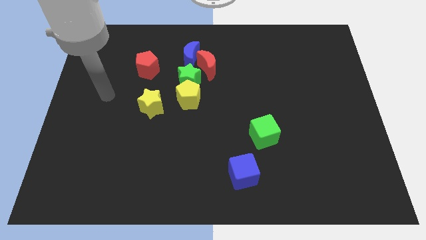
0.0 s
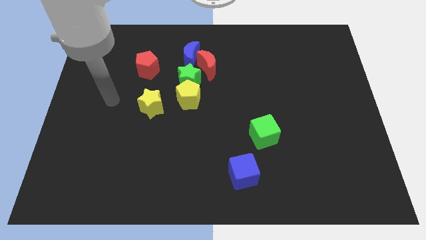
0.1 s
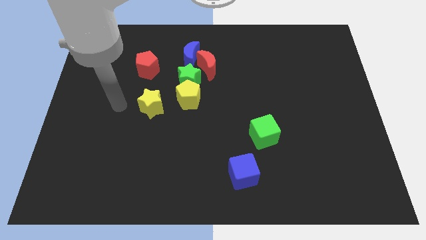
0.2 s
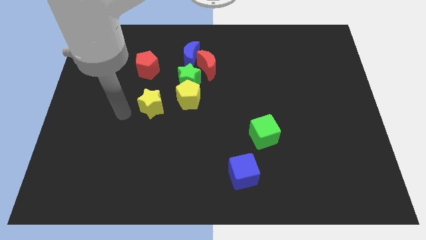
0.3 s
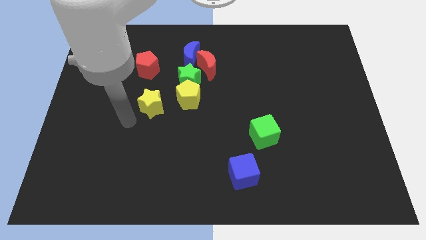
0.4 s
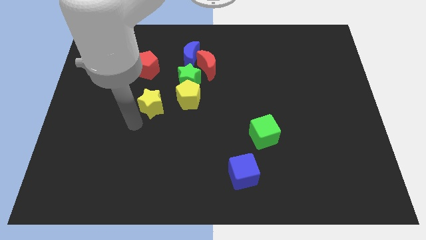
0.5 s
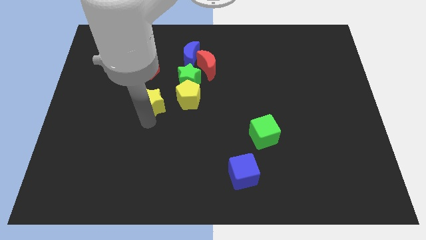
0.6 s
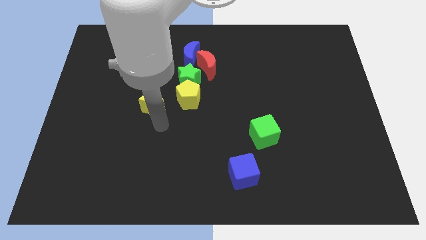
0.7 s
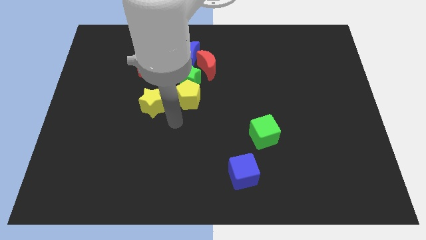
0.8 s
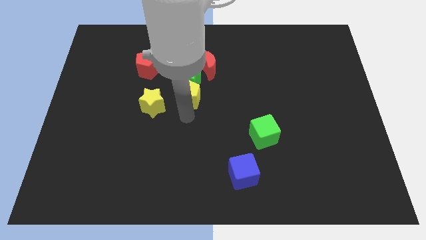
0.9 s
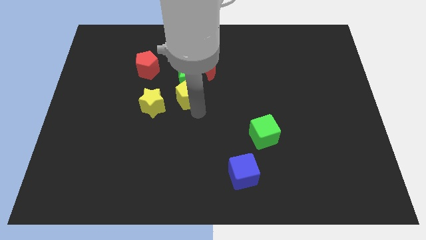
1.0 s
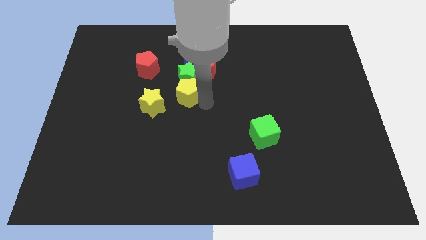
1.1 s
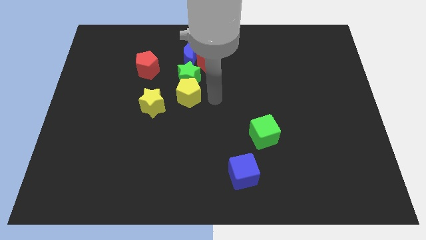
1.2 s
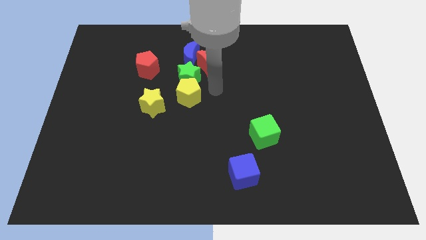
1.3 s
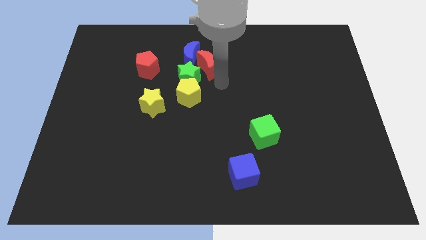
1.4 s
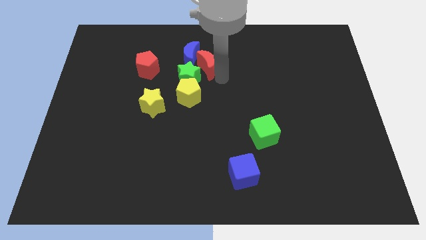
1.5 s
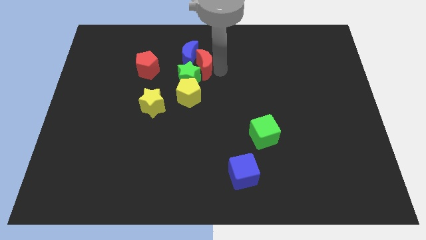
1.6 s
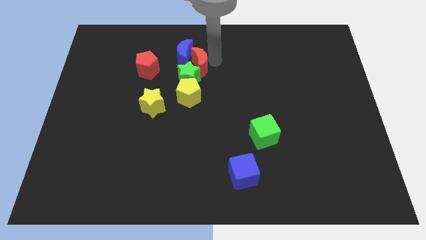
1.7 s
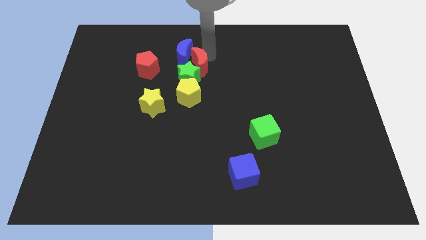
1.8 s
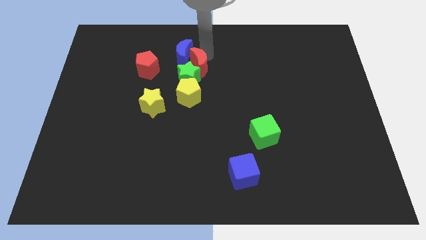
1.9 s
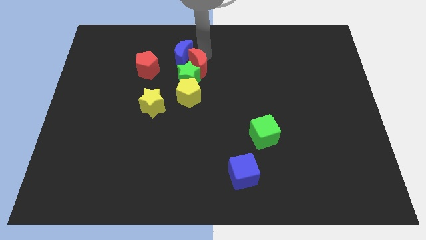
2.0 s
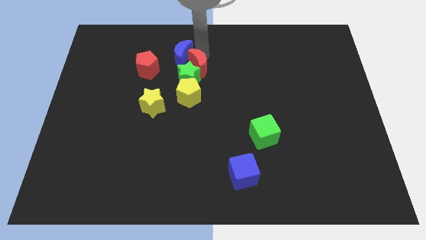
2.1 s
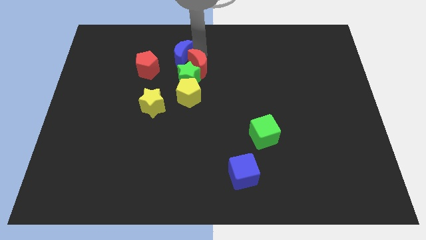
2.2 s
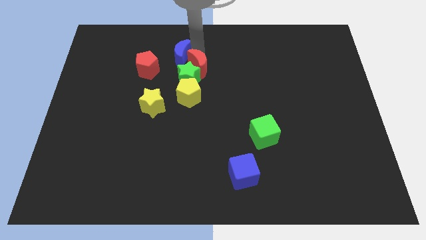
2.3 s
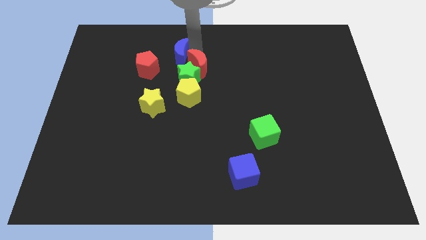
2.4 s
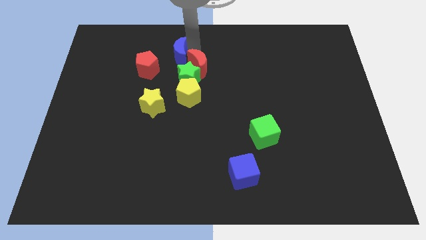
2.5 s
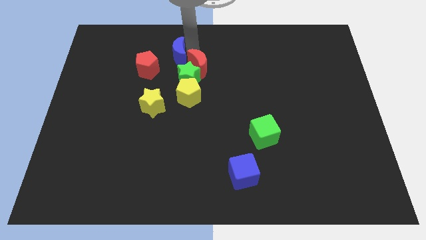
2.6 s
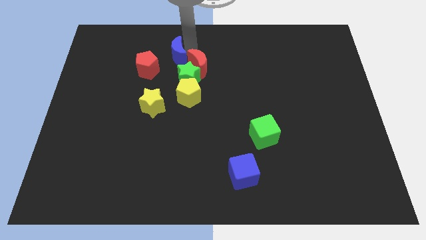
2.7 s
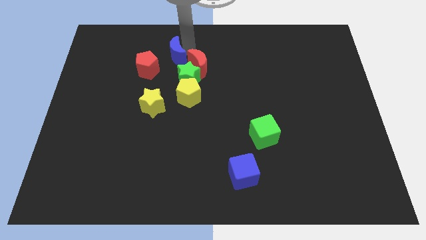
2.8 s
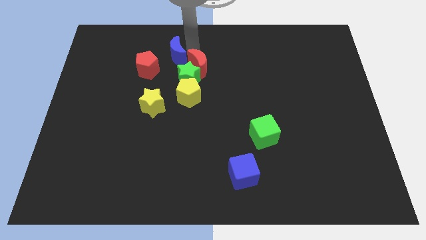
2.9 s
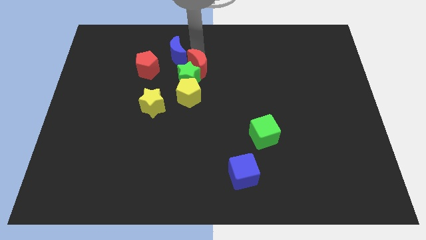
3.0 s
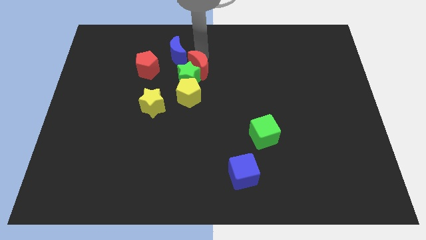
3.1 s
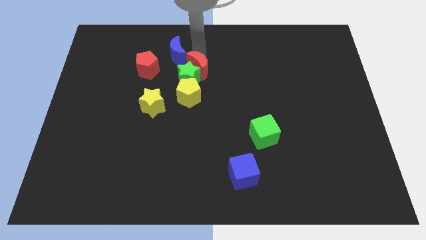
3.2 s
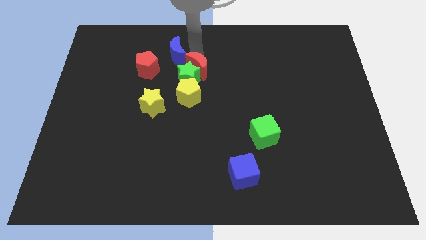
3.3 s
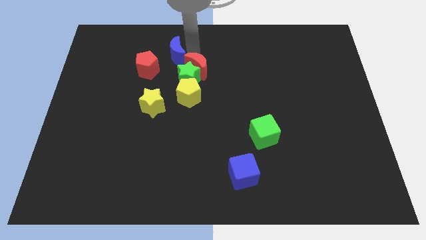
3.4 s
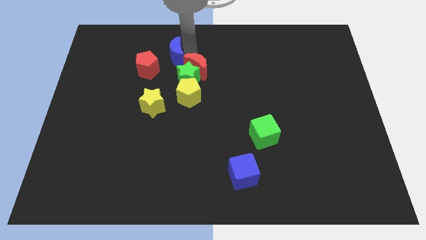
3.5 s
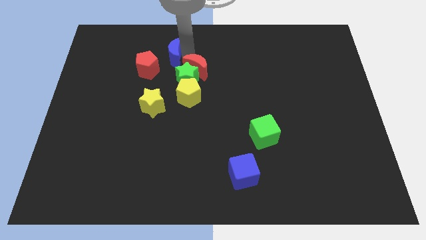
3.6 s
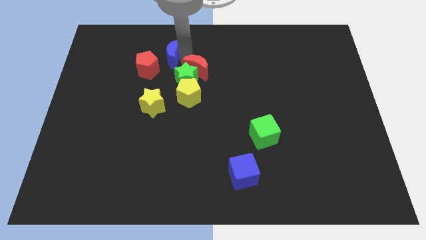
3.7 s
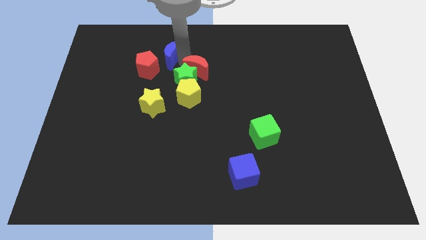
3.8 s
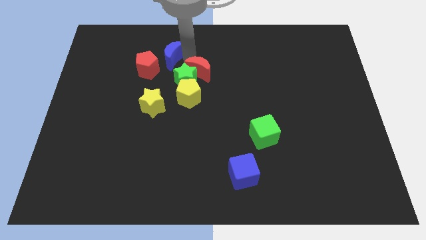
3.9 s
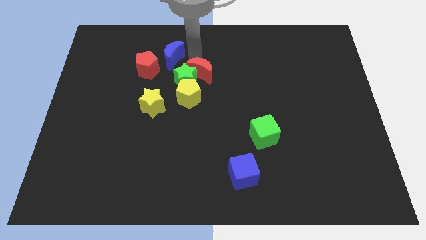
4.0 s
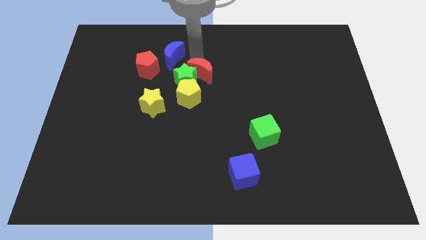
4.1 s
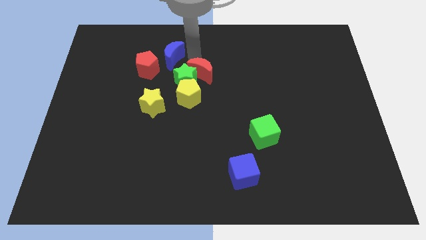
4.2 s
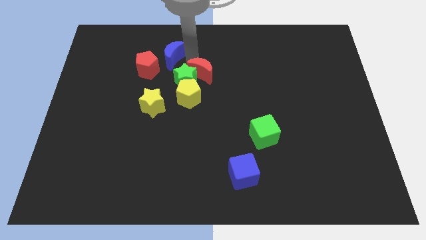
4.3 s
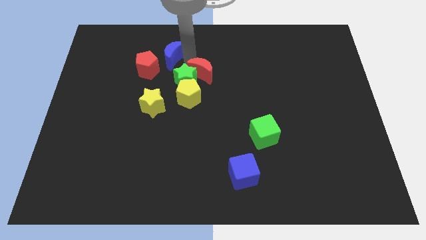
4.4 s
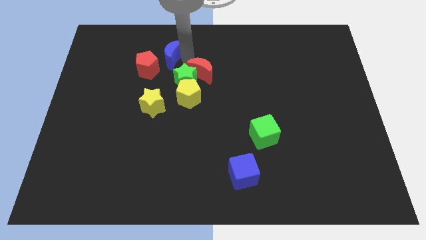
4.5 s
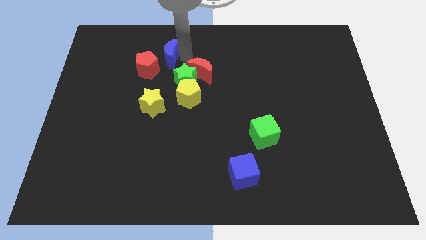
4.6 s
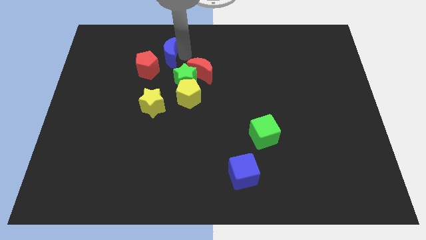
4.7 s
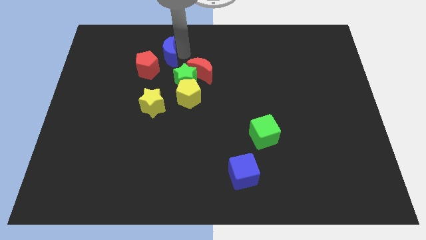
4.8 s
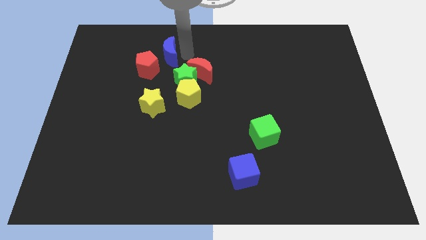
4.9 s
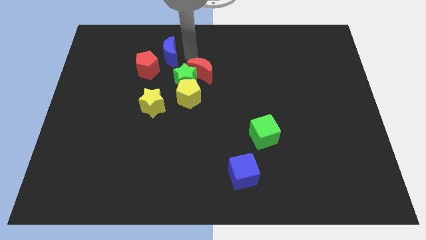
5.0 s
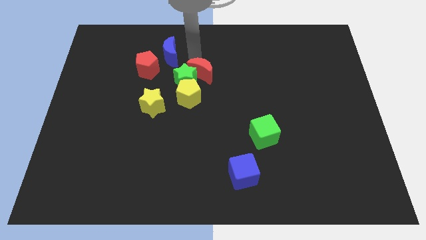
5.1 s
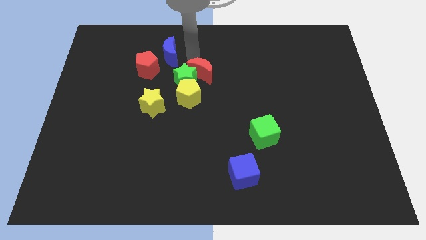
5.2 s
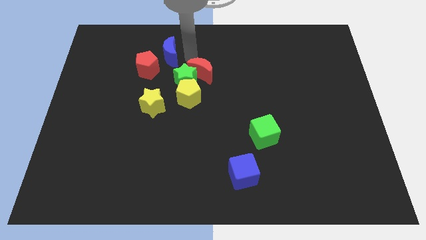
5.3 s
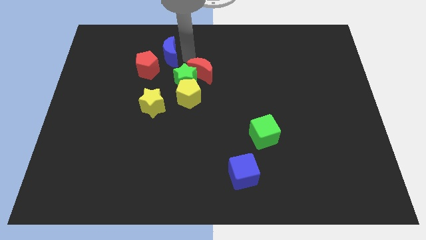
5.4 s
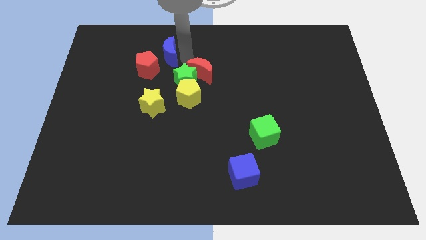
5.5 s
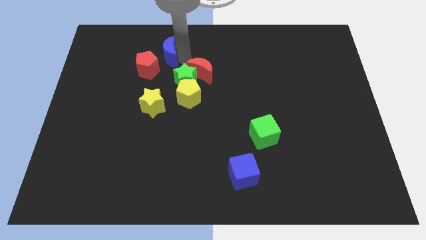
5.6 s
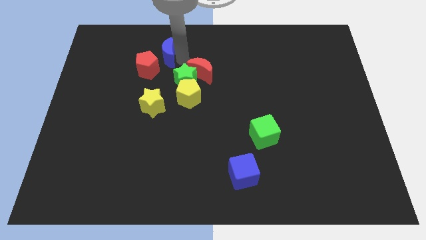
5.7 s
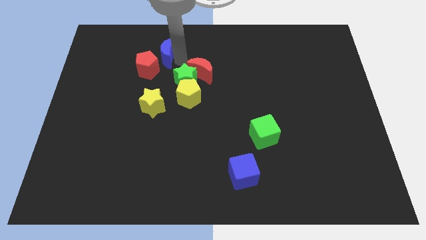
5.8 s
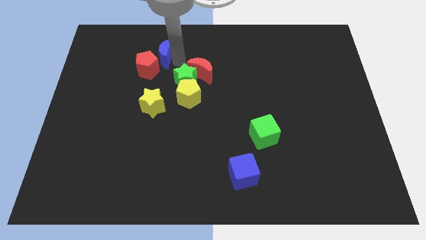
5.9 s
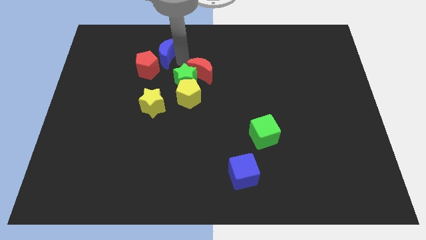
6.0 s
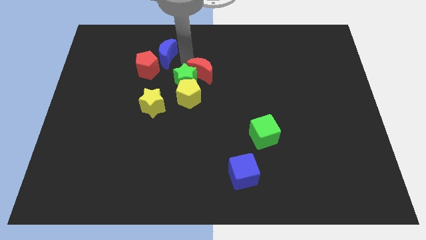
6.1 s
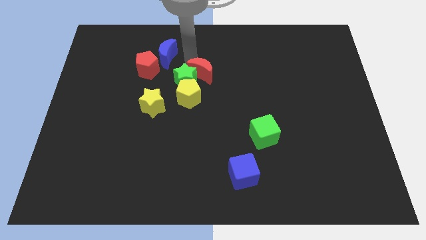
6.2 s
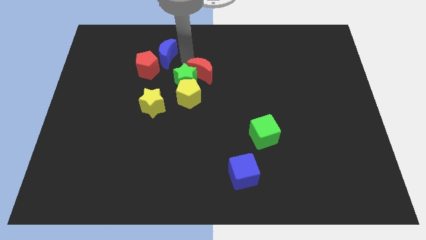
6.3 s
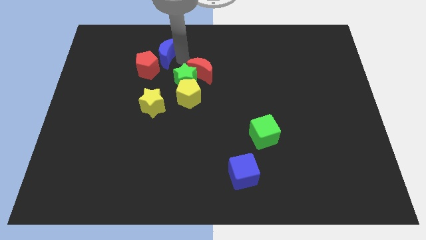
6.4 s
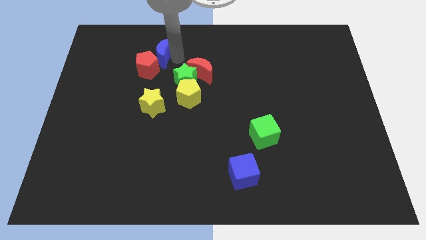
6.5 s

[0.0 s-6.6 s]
slide the blue moon a little bit to the left

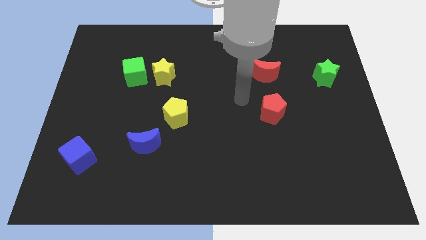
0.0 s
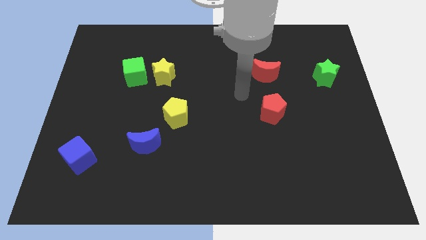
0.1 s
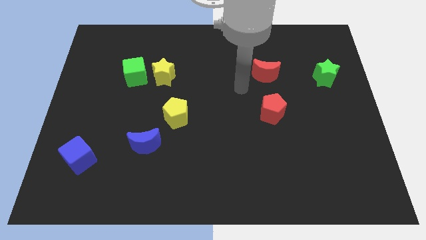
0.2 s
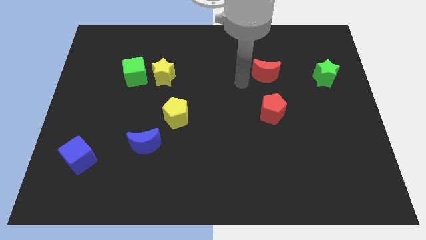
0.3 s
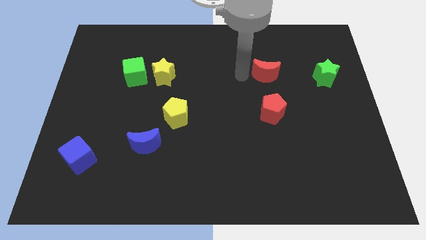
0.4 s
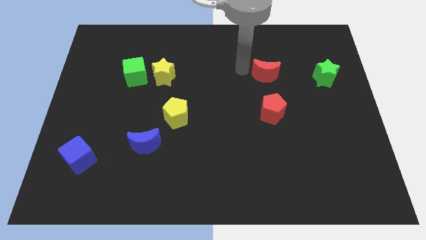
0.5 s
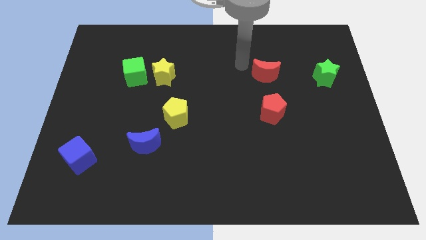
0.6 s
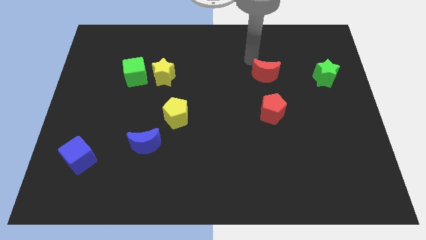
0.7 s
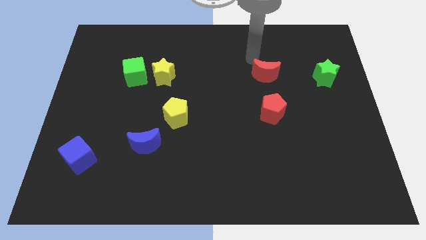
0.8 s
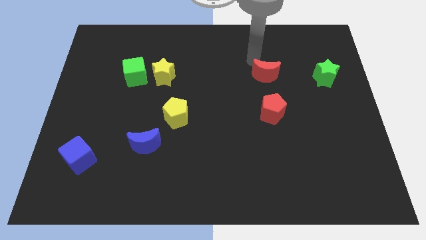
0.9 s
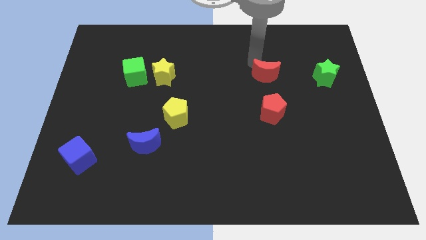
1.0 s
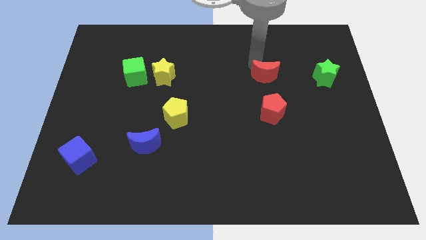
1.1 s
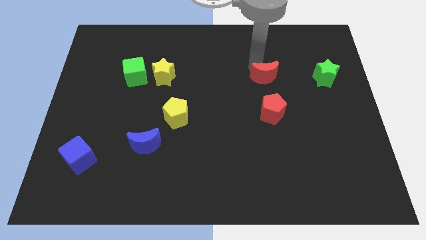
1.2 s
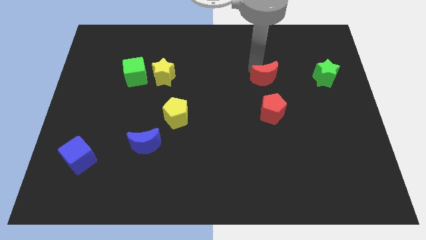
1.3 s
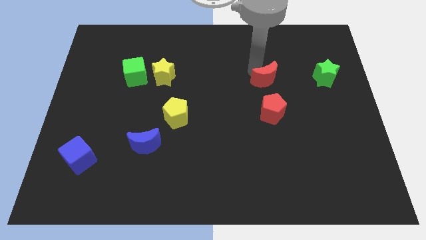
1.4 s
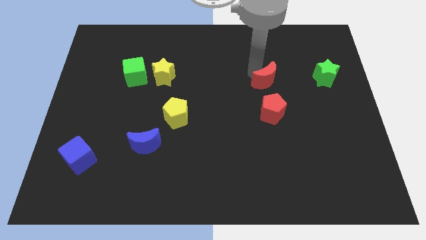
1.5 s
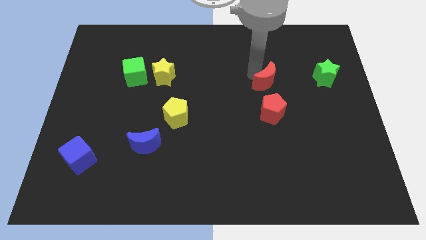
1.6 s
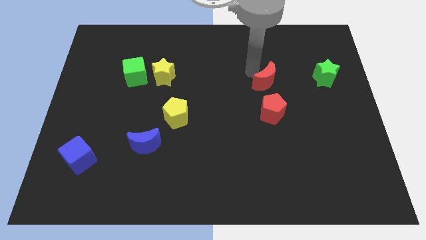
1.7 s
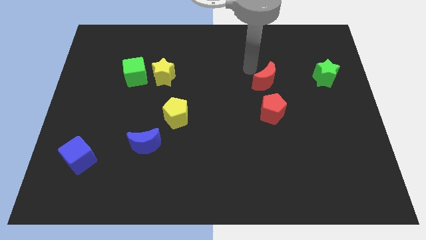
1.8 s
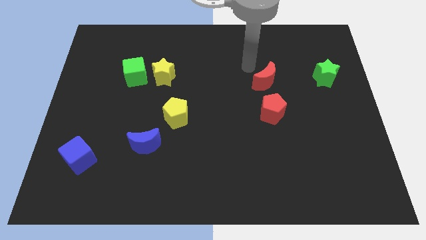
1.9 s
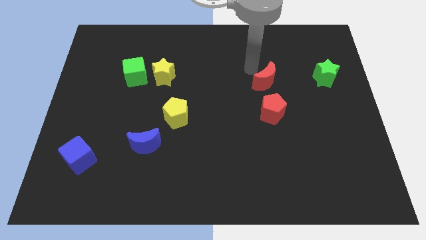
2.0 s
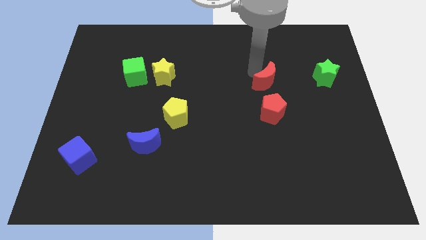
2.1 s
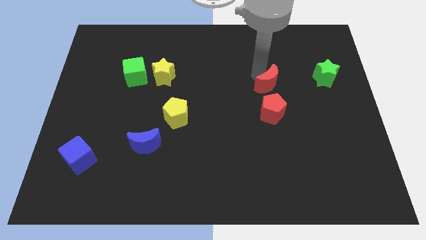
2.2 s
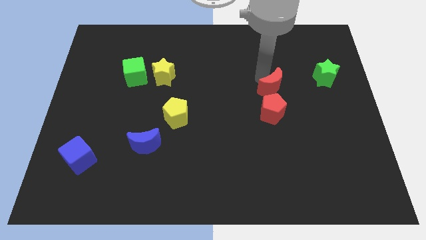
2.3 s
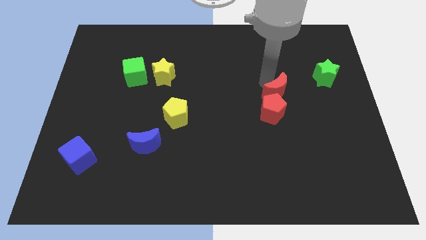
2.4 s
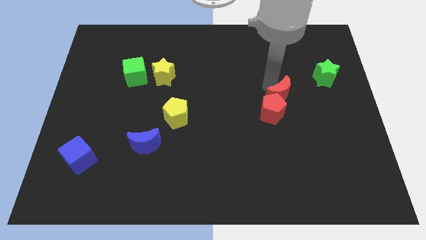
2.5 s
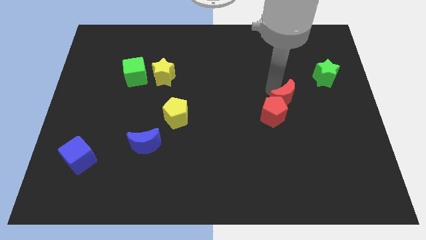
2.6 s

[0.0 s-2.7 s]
slide the red moon down a little bit
